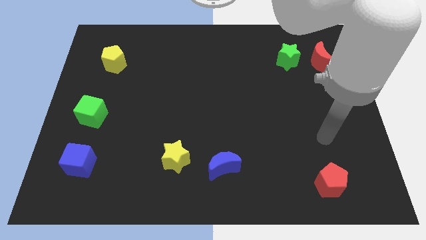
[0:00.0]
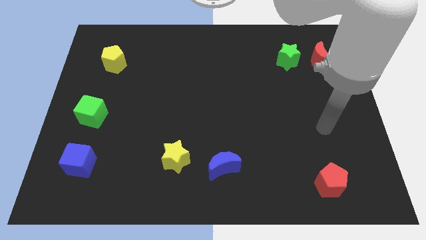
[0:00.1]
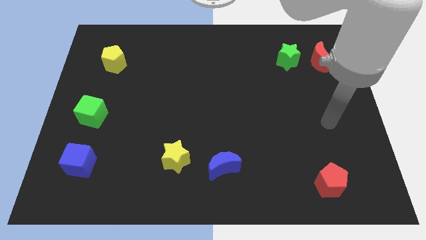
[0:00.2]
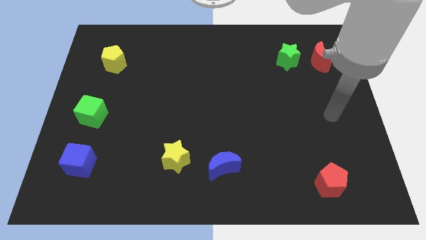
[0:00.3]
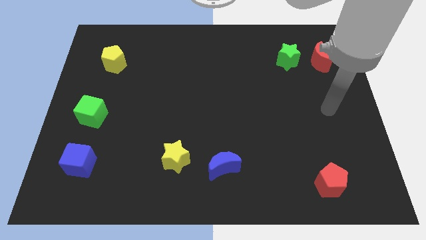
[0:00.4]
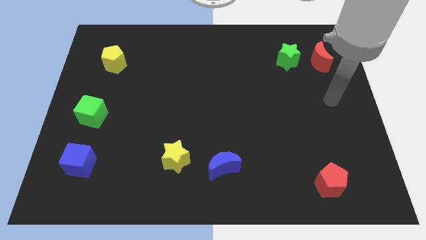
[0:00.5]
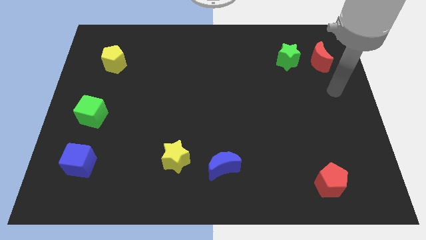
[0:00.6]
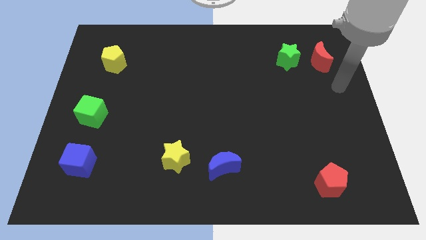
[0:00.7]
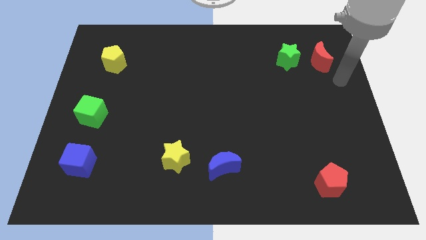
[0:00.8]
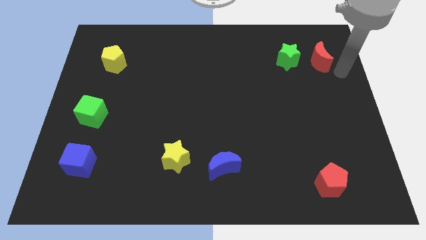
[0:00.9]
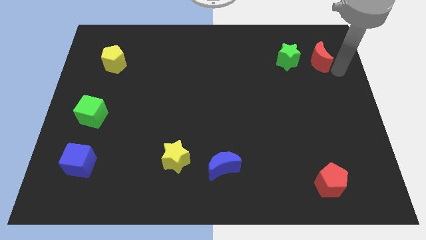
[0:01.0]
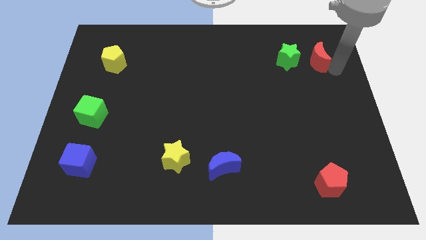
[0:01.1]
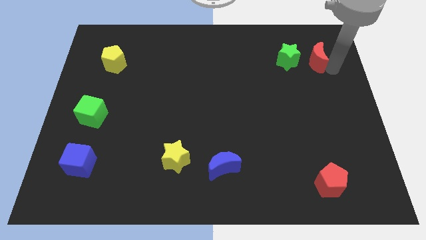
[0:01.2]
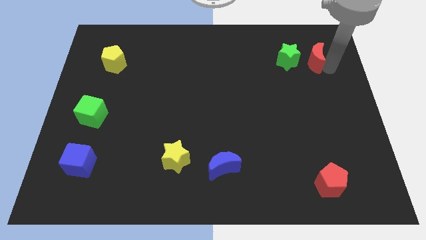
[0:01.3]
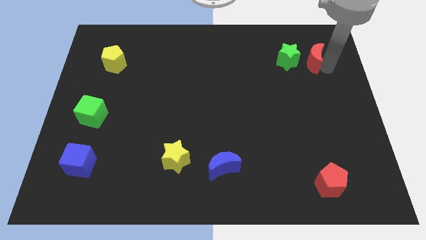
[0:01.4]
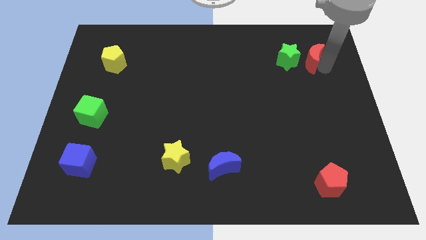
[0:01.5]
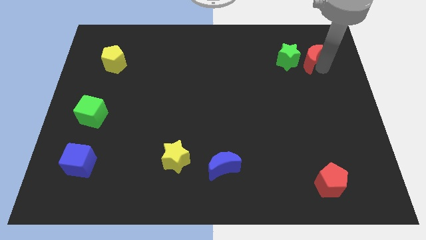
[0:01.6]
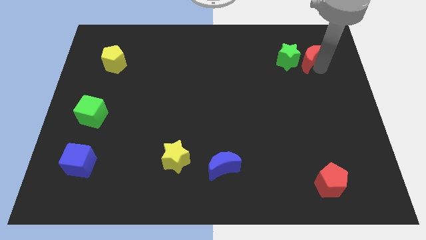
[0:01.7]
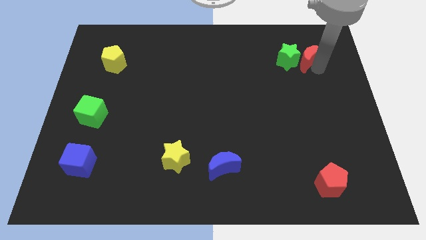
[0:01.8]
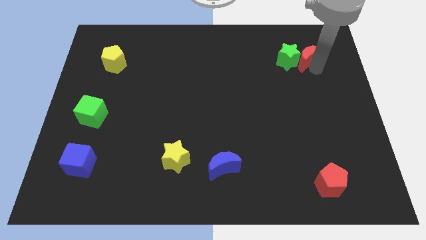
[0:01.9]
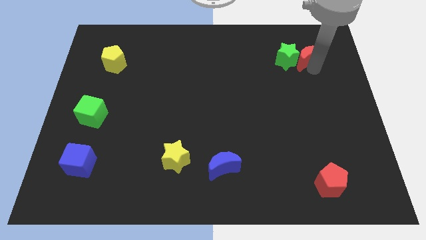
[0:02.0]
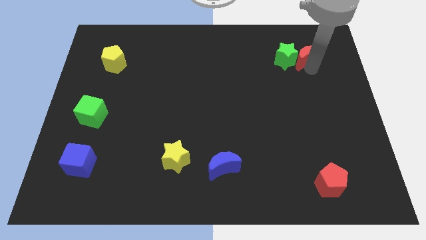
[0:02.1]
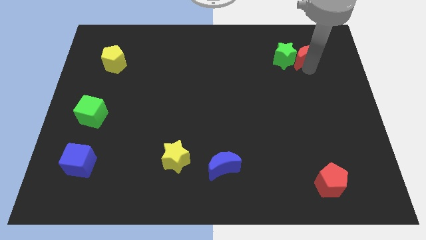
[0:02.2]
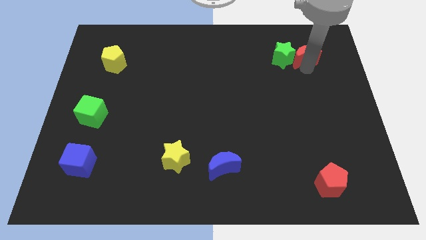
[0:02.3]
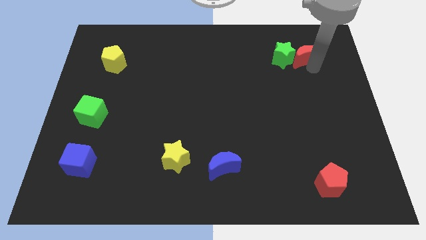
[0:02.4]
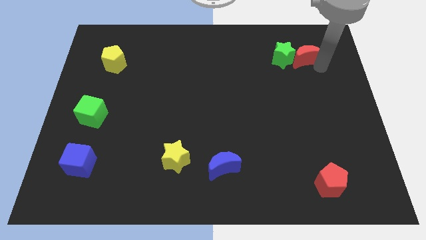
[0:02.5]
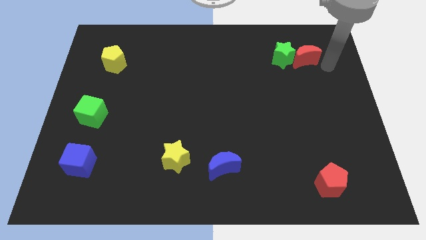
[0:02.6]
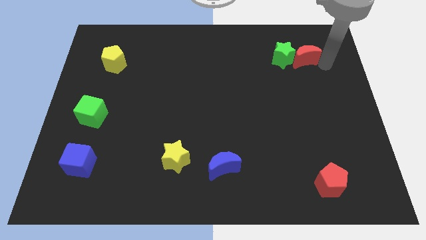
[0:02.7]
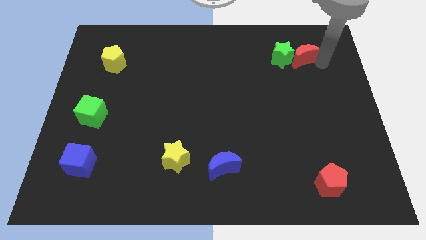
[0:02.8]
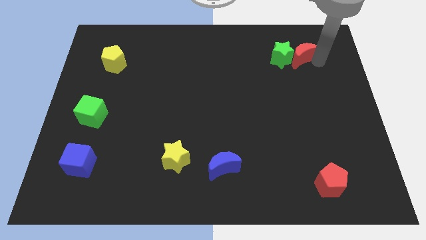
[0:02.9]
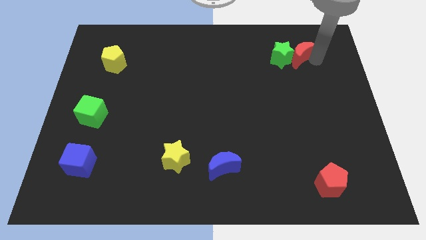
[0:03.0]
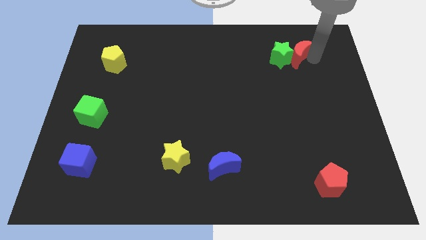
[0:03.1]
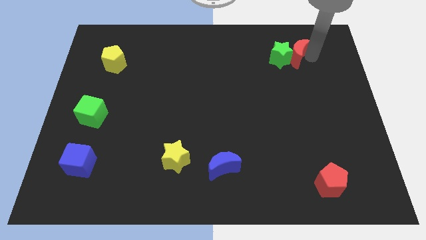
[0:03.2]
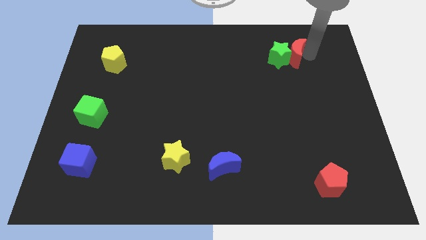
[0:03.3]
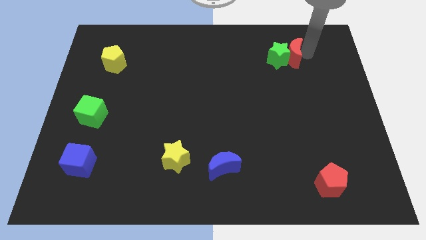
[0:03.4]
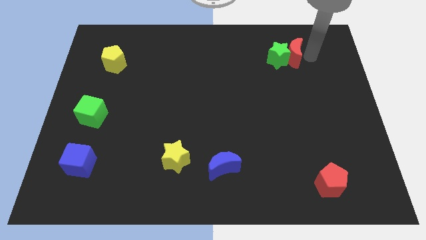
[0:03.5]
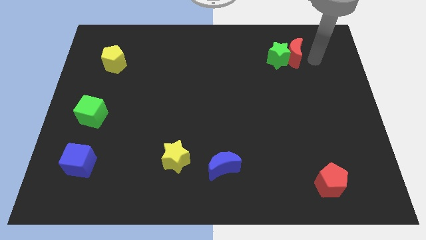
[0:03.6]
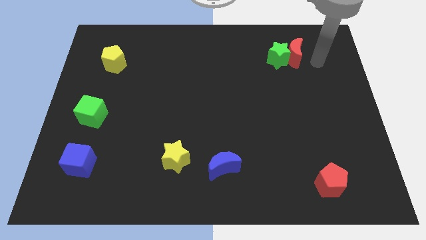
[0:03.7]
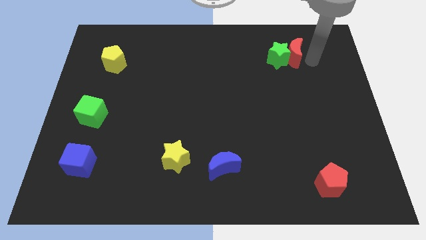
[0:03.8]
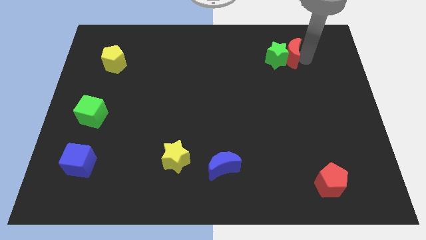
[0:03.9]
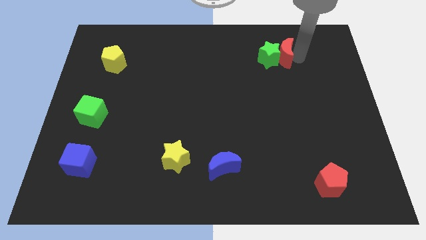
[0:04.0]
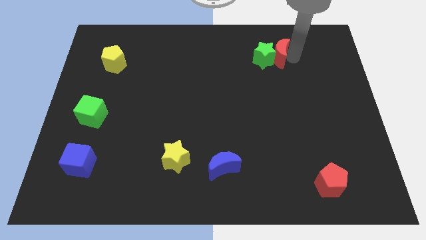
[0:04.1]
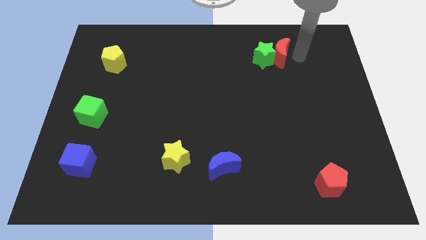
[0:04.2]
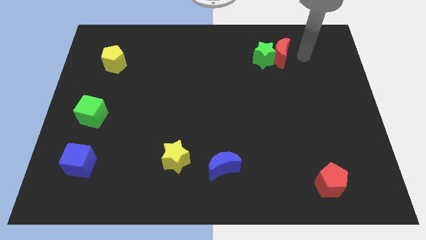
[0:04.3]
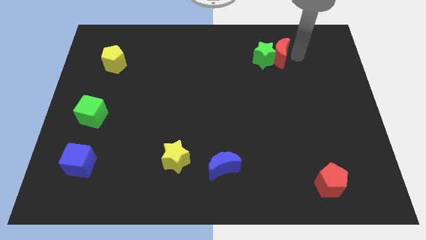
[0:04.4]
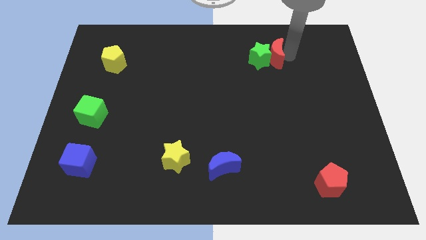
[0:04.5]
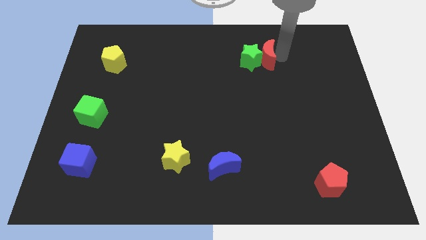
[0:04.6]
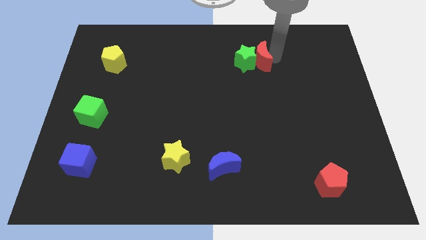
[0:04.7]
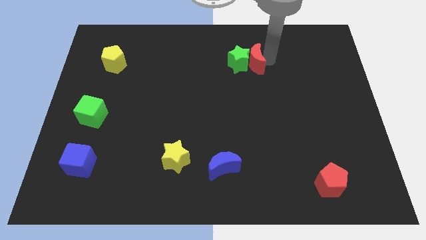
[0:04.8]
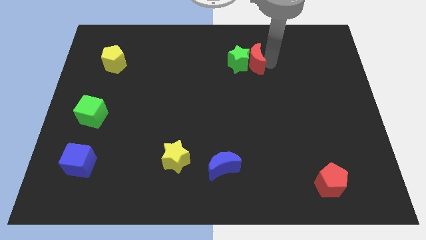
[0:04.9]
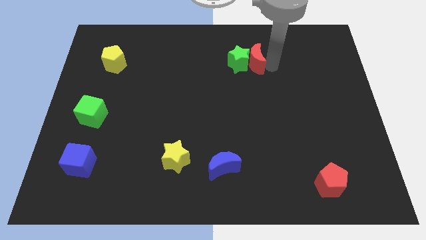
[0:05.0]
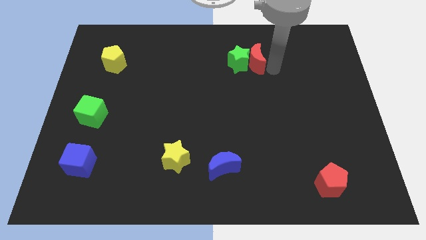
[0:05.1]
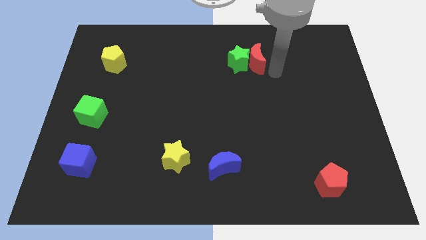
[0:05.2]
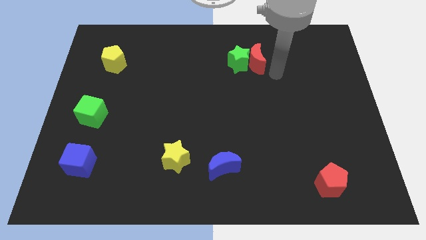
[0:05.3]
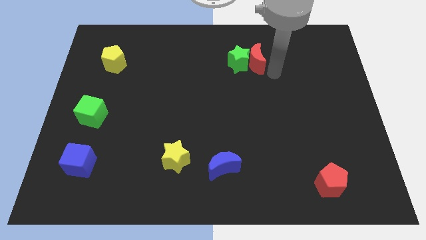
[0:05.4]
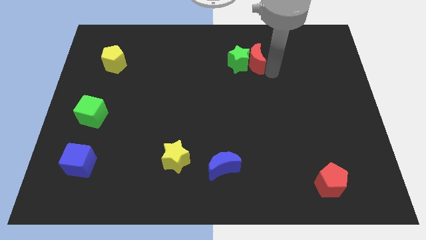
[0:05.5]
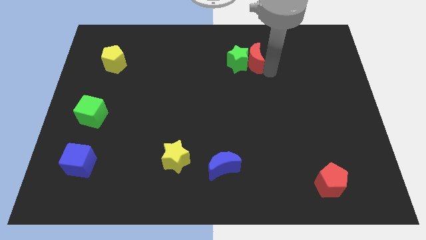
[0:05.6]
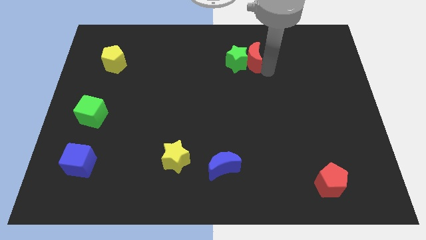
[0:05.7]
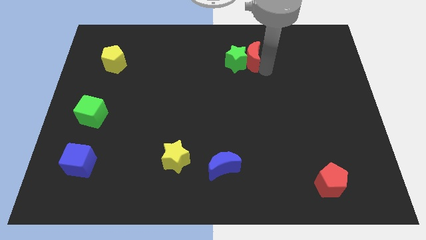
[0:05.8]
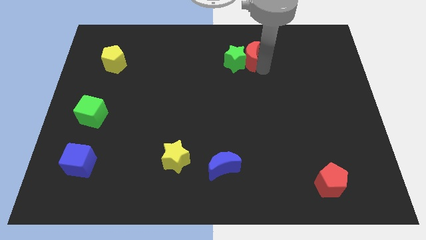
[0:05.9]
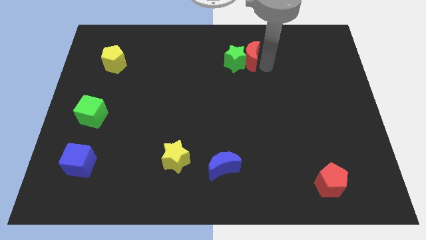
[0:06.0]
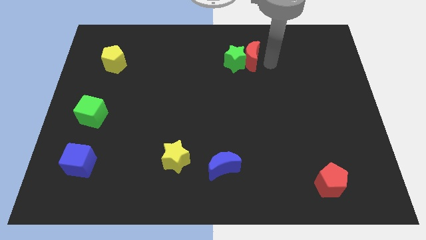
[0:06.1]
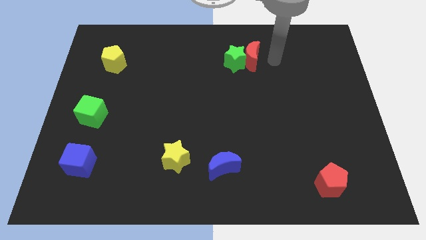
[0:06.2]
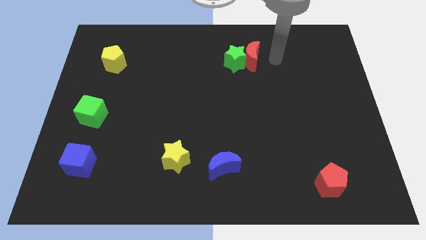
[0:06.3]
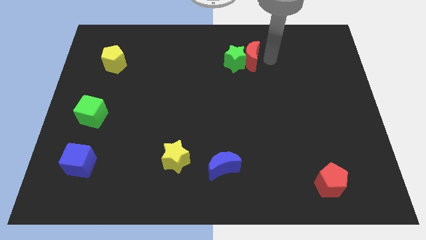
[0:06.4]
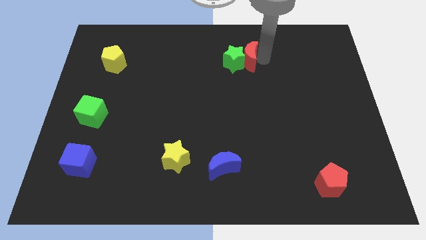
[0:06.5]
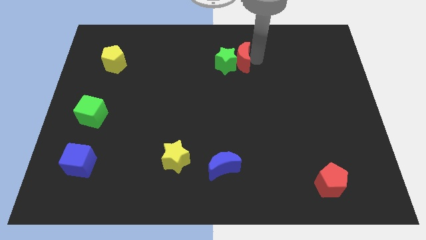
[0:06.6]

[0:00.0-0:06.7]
move the red moon to the left

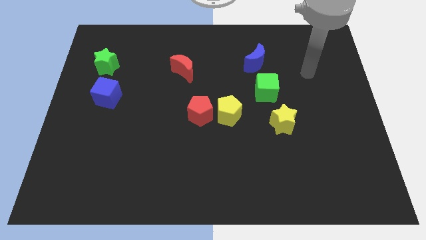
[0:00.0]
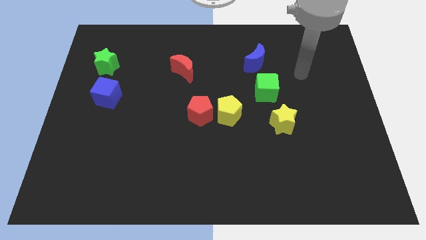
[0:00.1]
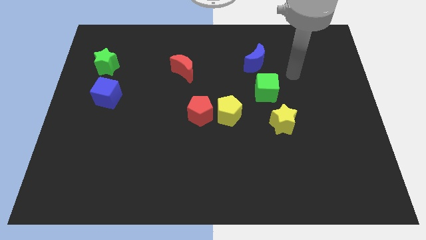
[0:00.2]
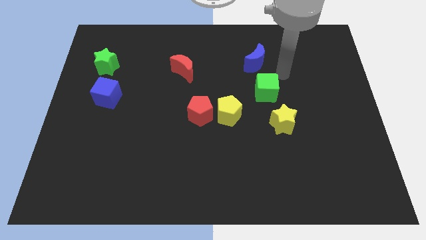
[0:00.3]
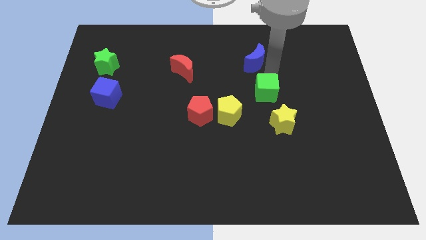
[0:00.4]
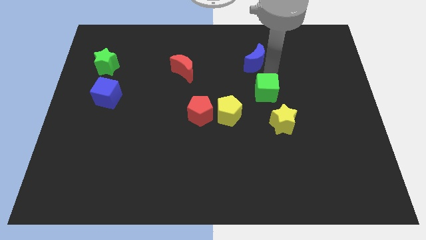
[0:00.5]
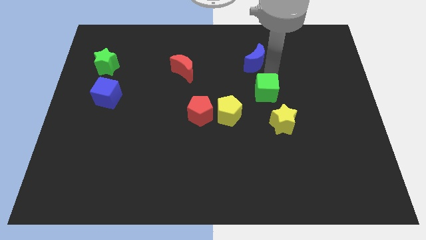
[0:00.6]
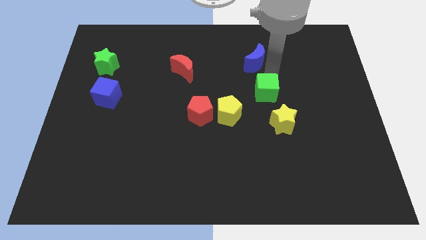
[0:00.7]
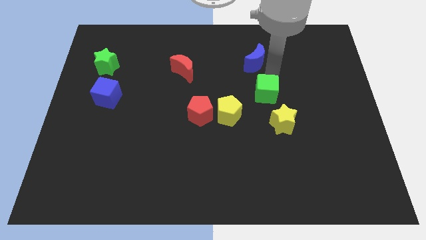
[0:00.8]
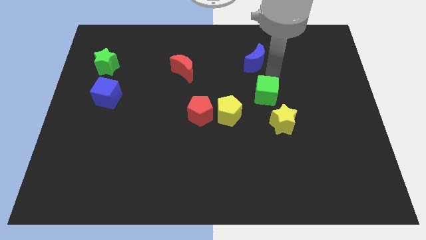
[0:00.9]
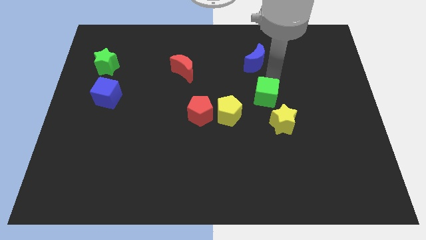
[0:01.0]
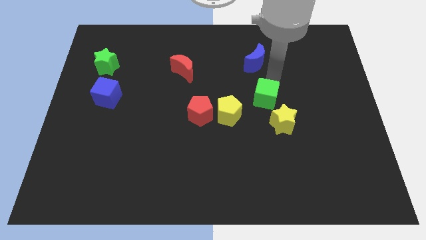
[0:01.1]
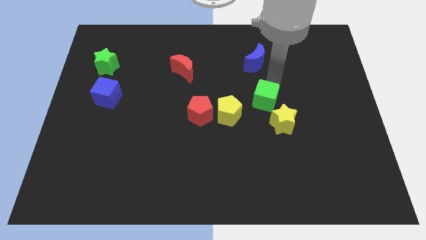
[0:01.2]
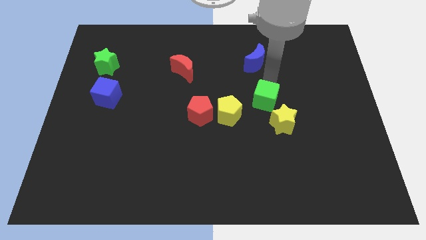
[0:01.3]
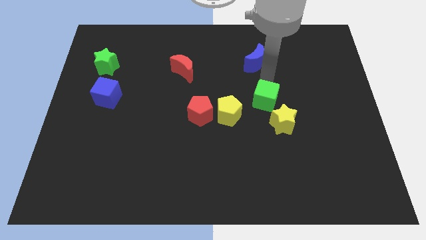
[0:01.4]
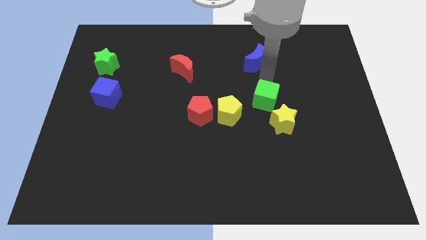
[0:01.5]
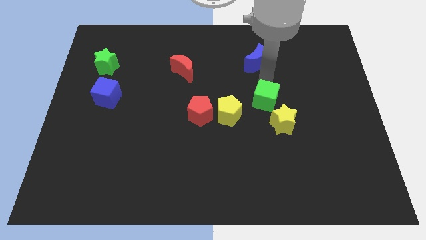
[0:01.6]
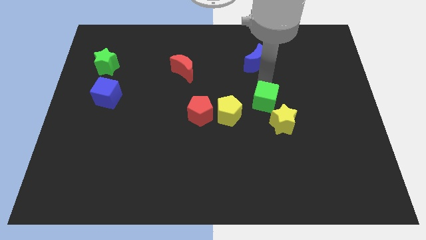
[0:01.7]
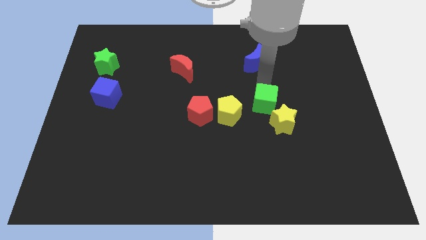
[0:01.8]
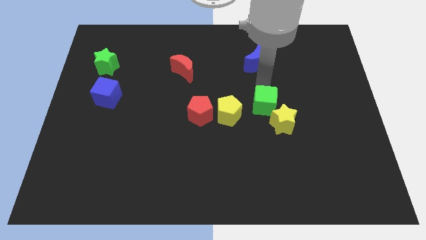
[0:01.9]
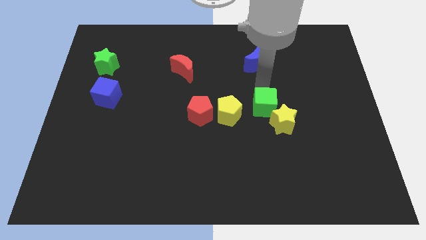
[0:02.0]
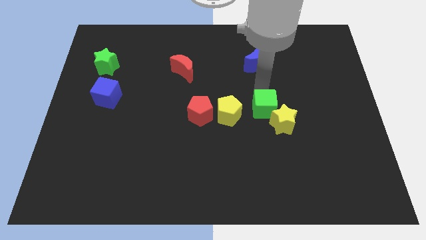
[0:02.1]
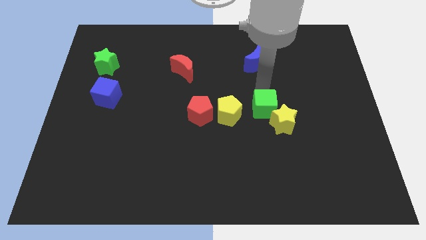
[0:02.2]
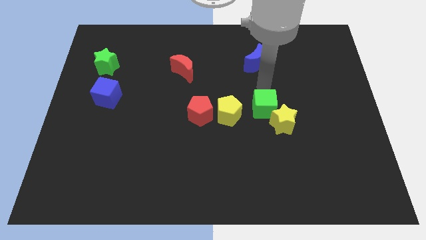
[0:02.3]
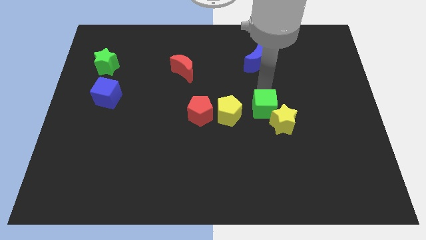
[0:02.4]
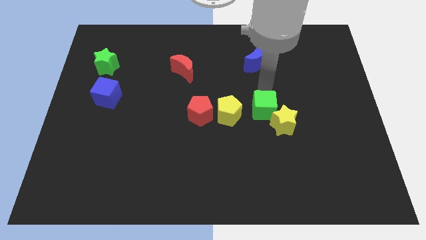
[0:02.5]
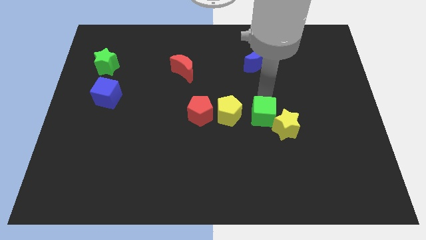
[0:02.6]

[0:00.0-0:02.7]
move the green cube a bit down
